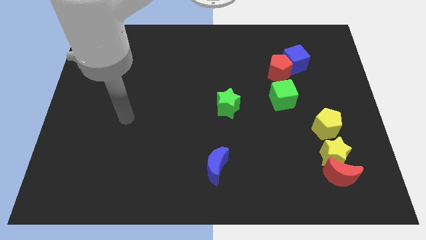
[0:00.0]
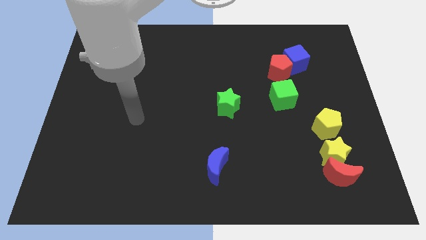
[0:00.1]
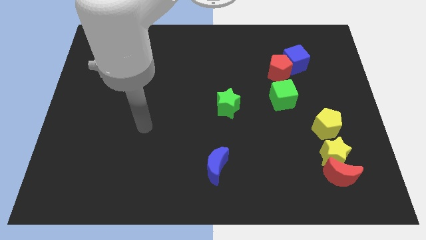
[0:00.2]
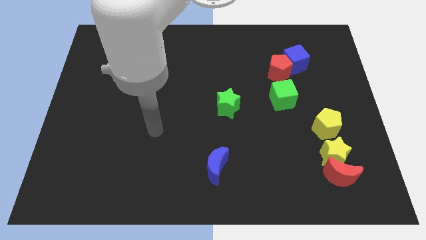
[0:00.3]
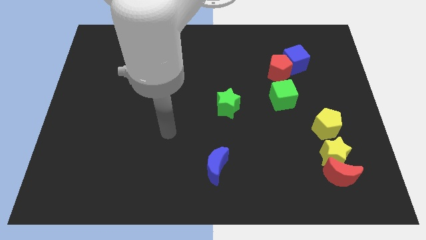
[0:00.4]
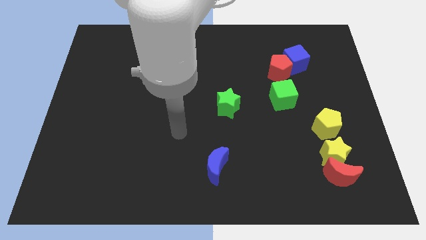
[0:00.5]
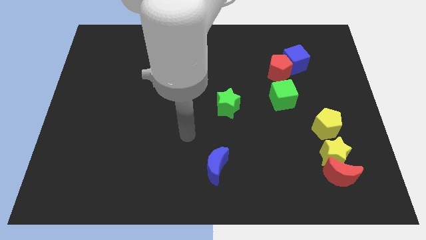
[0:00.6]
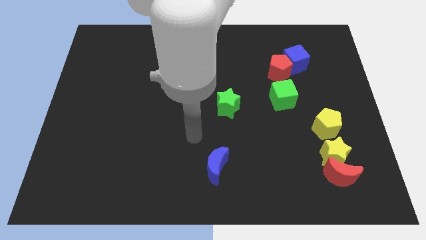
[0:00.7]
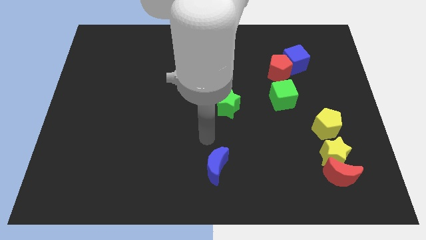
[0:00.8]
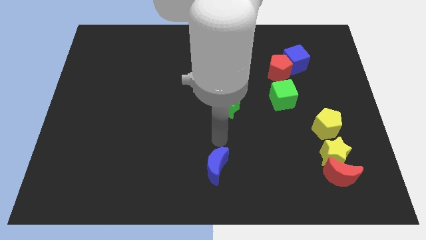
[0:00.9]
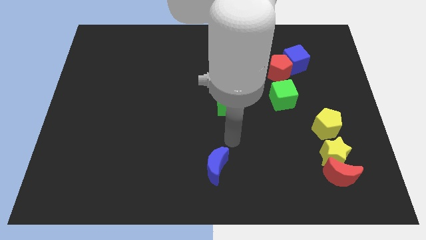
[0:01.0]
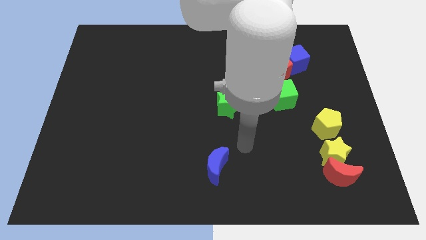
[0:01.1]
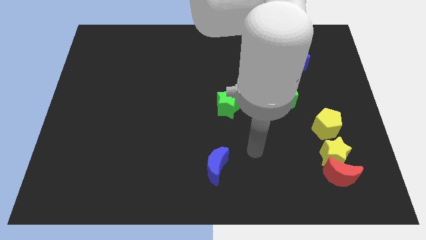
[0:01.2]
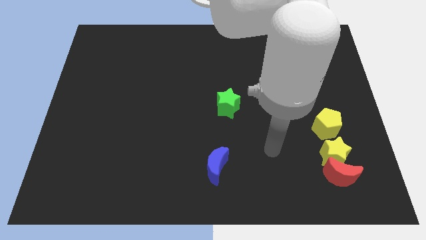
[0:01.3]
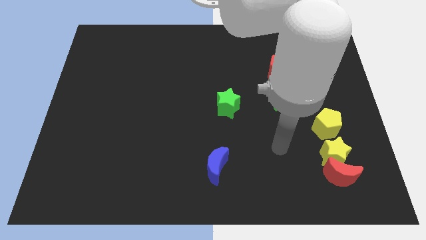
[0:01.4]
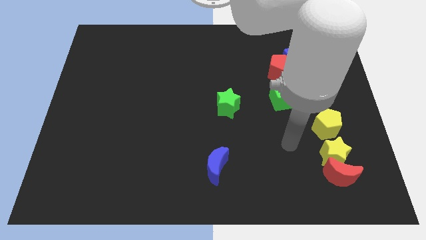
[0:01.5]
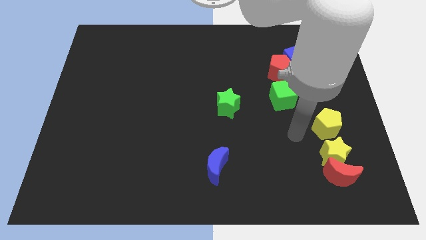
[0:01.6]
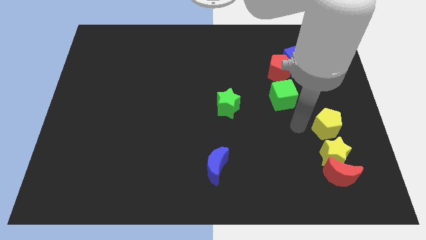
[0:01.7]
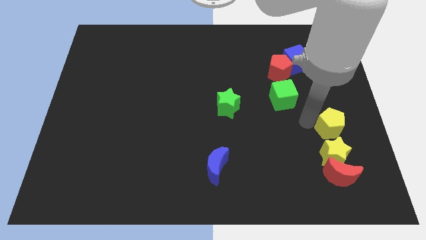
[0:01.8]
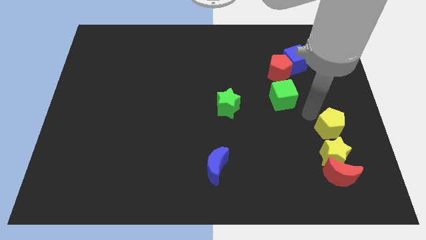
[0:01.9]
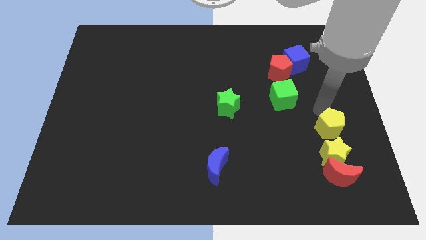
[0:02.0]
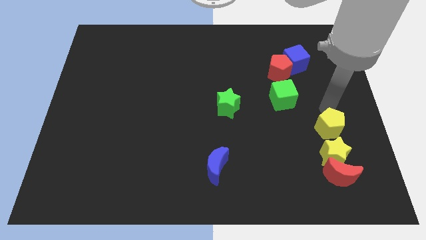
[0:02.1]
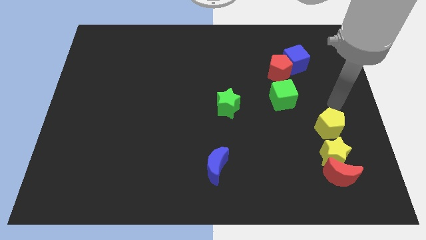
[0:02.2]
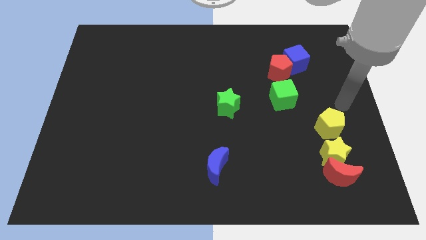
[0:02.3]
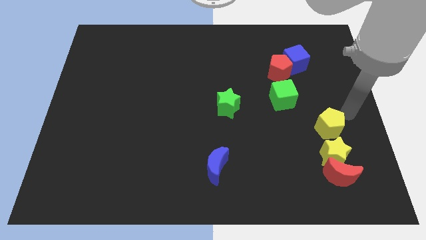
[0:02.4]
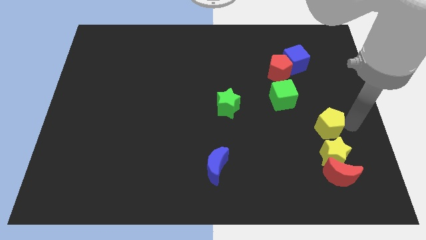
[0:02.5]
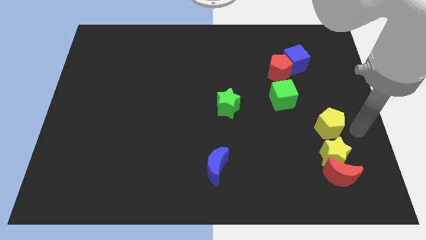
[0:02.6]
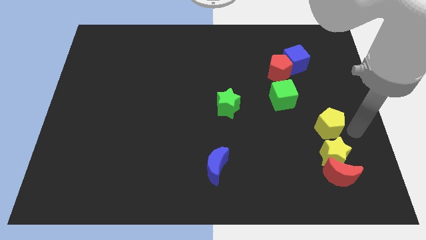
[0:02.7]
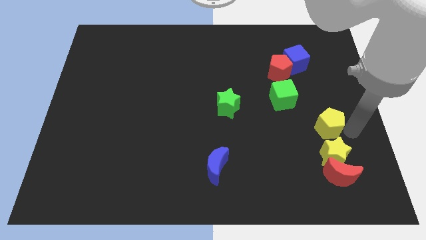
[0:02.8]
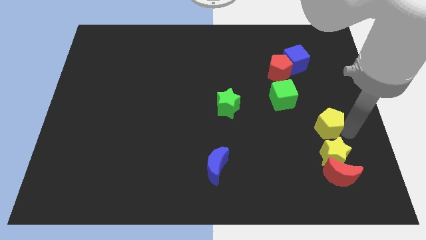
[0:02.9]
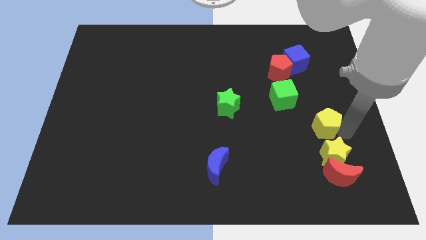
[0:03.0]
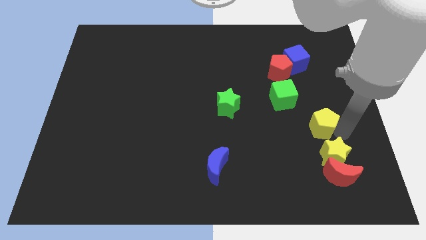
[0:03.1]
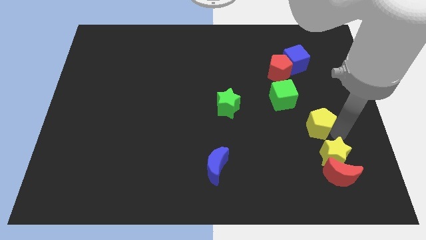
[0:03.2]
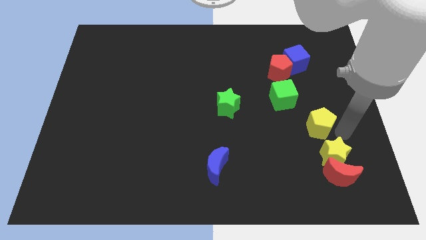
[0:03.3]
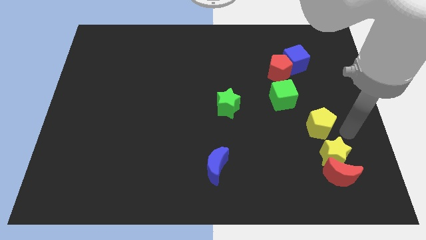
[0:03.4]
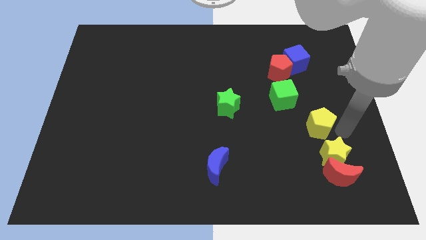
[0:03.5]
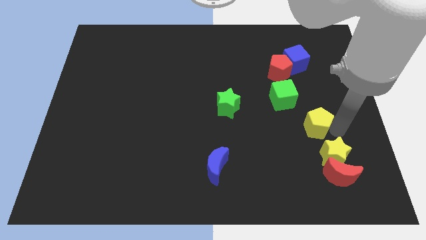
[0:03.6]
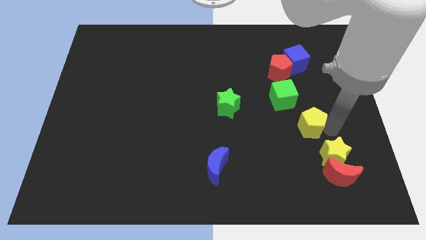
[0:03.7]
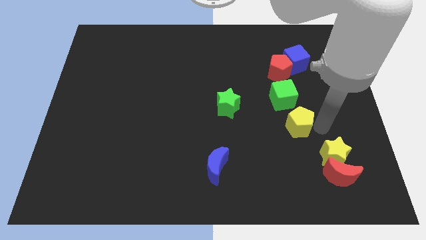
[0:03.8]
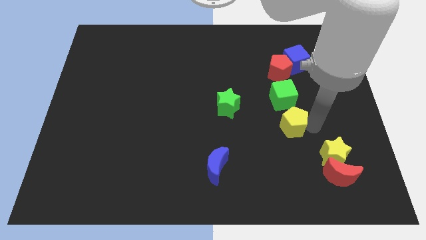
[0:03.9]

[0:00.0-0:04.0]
push the yellow pentagon to the left a bit

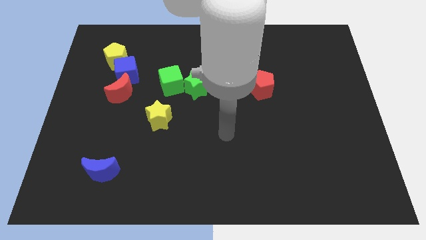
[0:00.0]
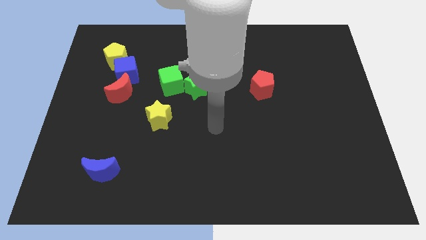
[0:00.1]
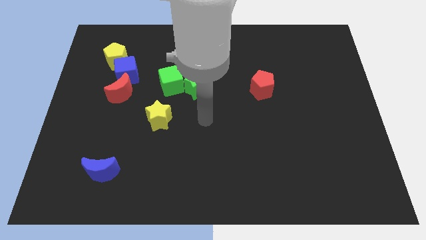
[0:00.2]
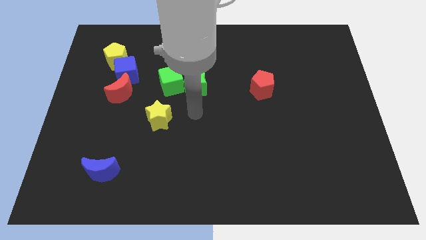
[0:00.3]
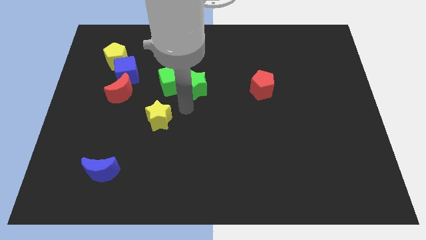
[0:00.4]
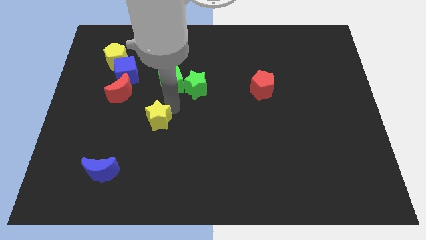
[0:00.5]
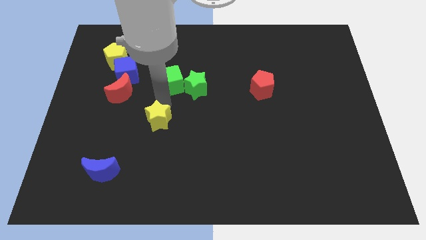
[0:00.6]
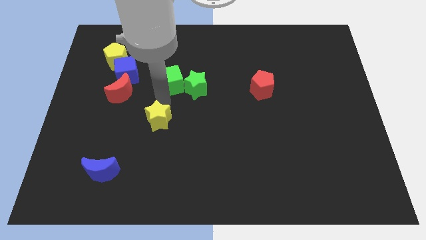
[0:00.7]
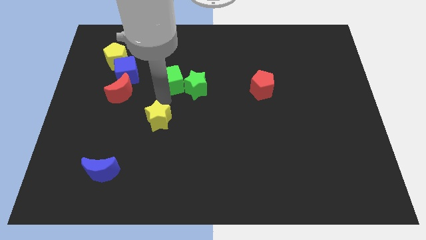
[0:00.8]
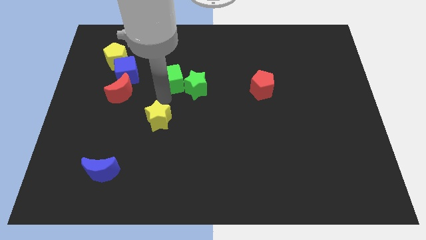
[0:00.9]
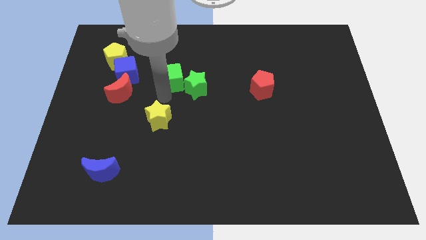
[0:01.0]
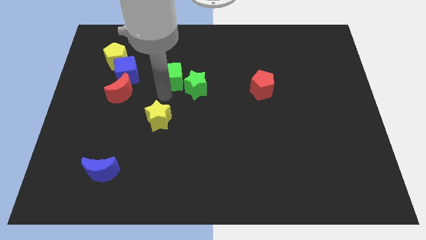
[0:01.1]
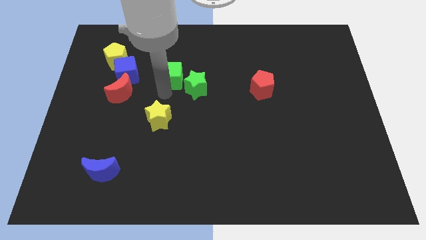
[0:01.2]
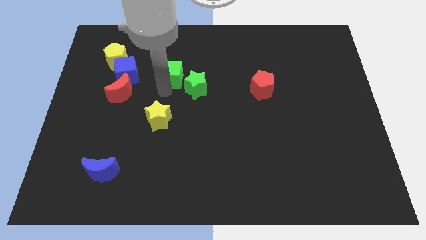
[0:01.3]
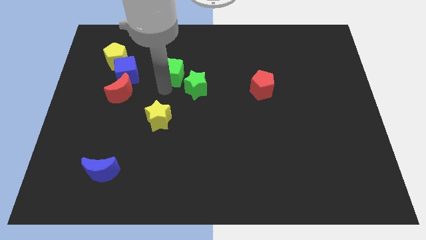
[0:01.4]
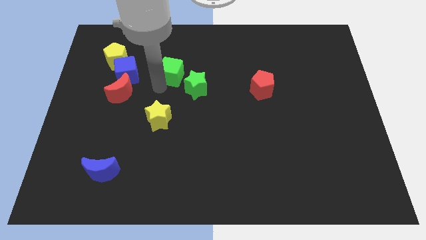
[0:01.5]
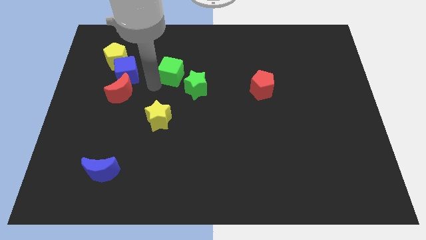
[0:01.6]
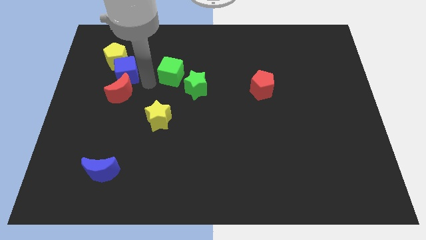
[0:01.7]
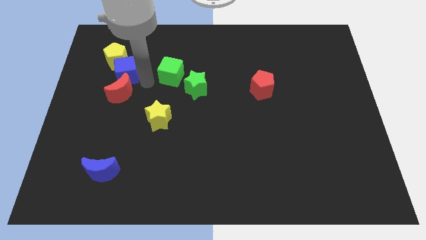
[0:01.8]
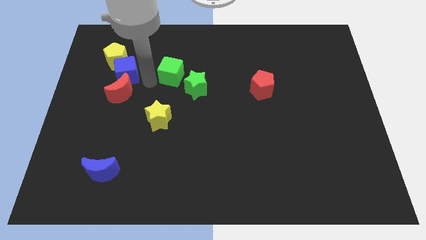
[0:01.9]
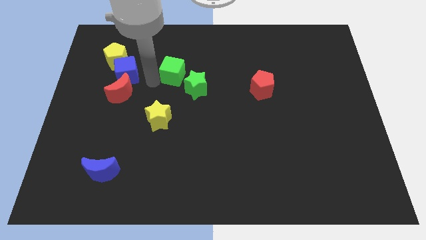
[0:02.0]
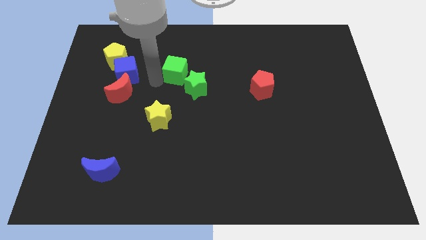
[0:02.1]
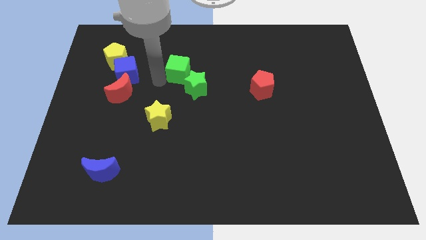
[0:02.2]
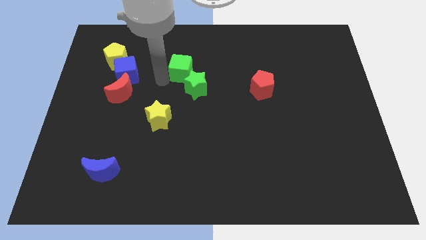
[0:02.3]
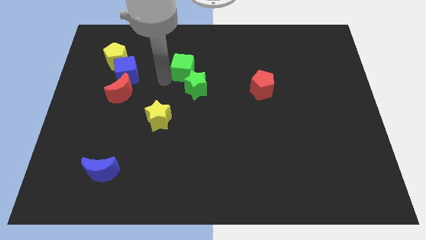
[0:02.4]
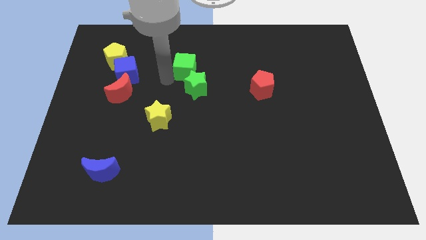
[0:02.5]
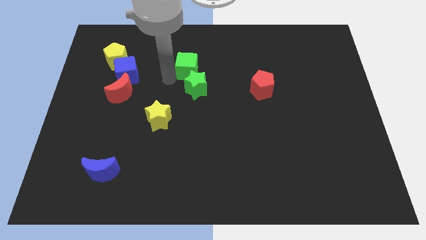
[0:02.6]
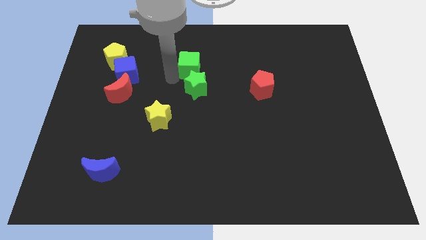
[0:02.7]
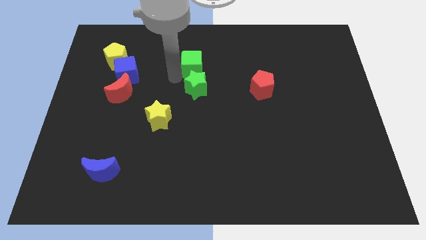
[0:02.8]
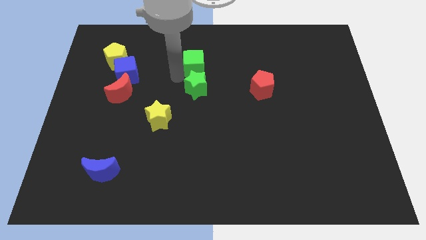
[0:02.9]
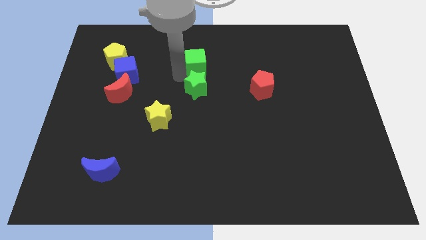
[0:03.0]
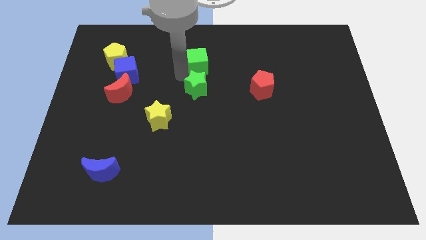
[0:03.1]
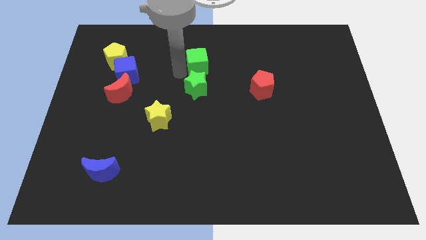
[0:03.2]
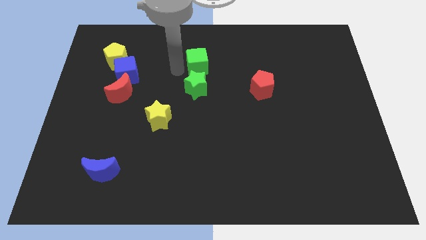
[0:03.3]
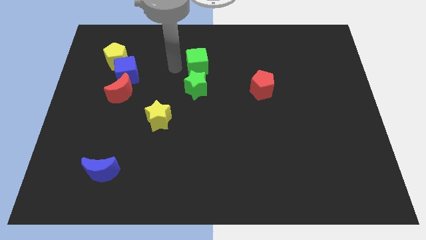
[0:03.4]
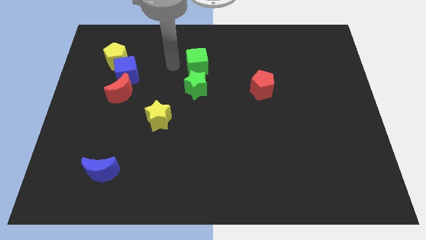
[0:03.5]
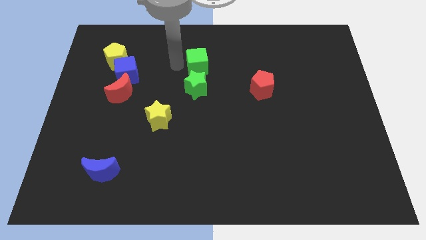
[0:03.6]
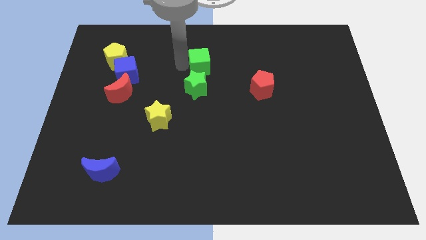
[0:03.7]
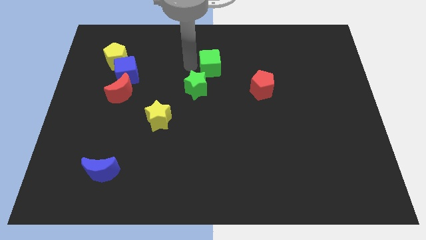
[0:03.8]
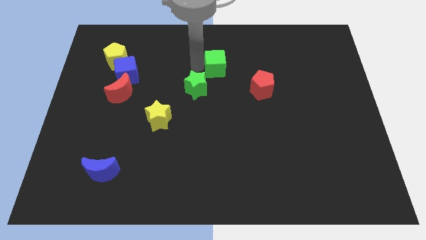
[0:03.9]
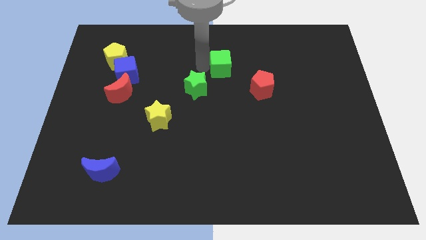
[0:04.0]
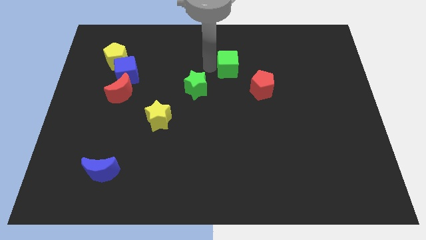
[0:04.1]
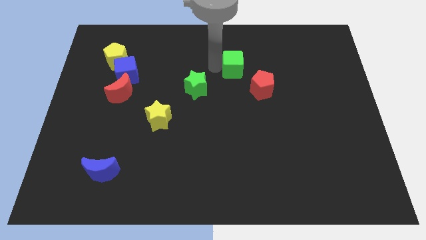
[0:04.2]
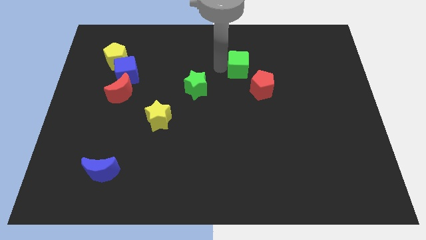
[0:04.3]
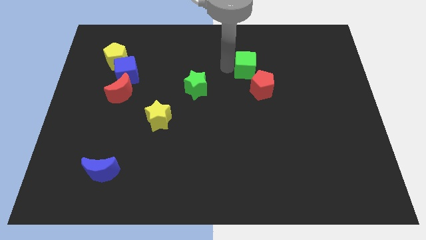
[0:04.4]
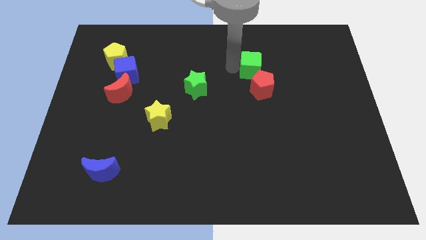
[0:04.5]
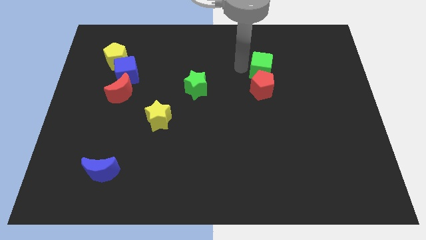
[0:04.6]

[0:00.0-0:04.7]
move the green cube to the right
